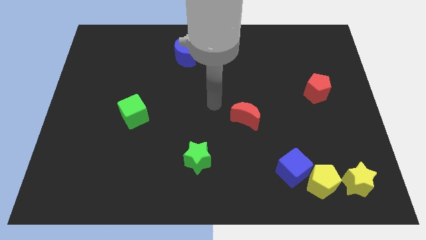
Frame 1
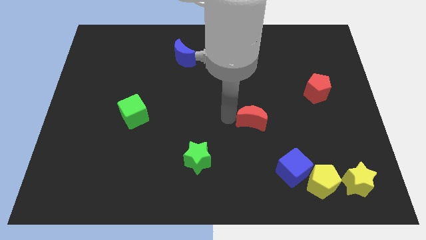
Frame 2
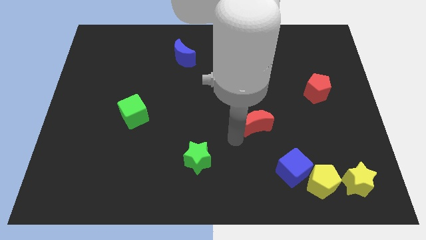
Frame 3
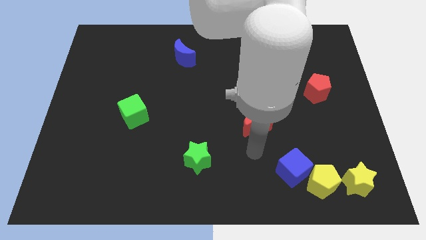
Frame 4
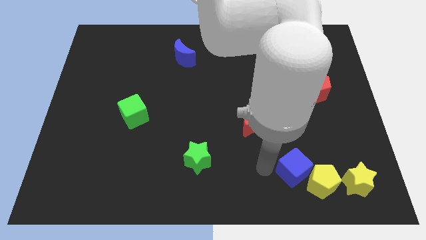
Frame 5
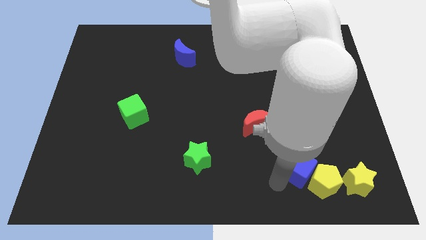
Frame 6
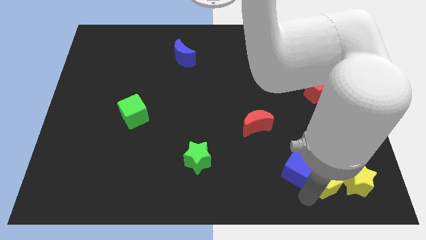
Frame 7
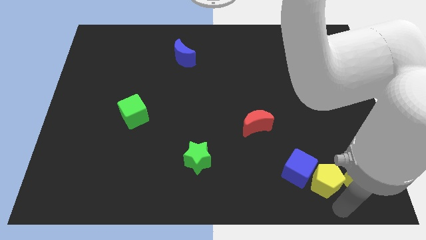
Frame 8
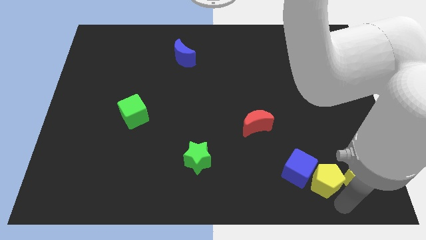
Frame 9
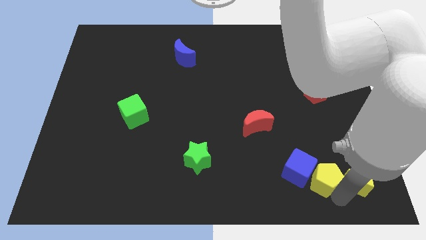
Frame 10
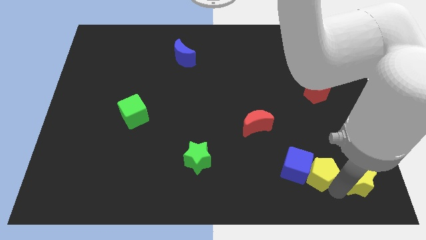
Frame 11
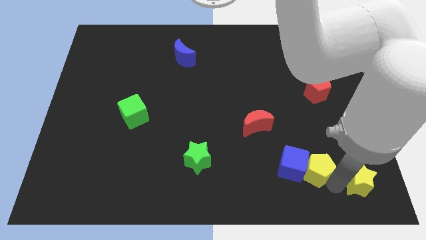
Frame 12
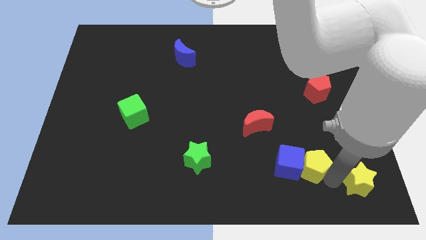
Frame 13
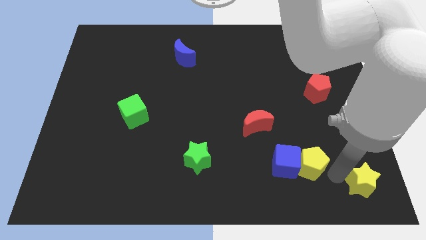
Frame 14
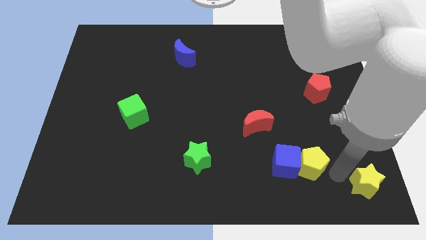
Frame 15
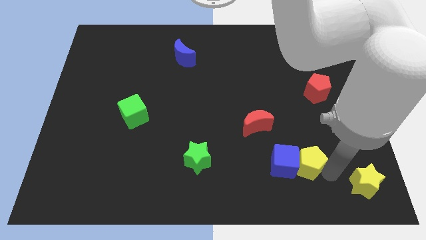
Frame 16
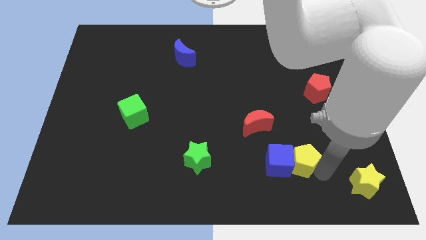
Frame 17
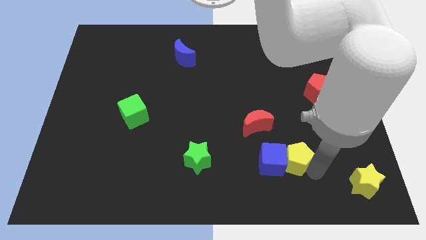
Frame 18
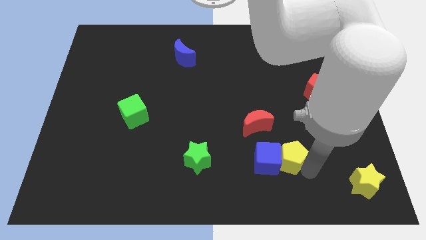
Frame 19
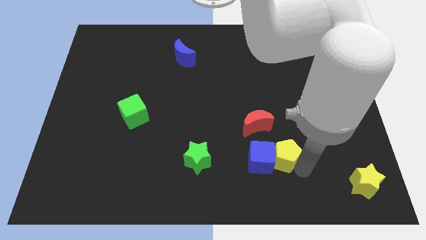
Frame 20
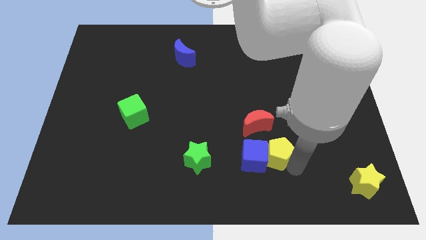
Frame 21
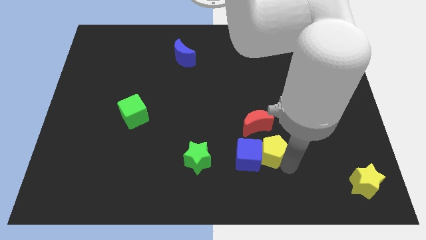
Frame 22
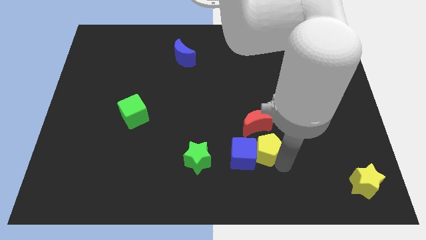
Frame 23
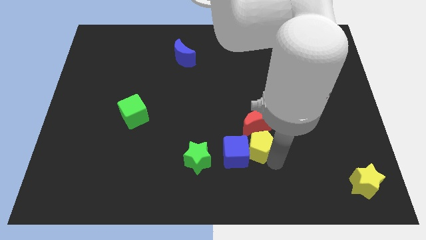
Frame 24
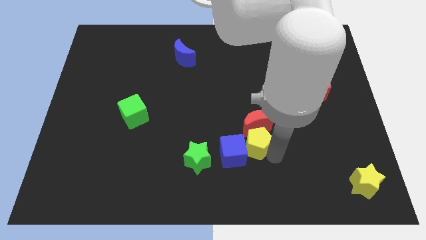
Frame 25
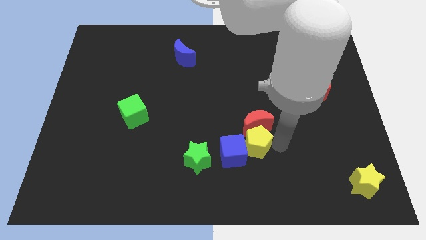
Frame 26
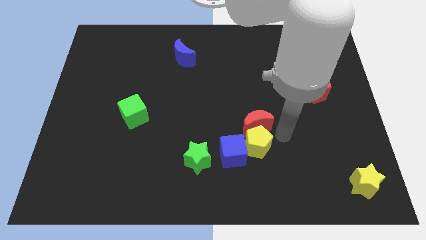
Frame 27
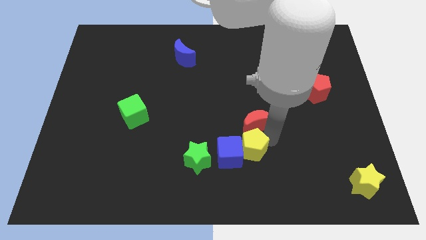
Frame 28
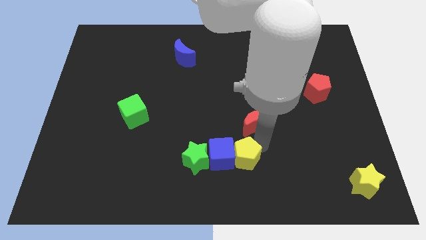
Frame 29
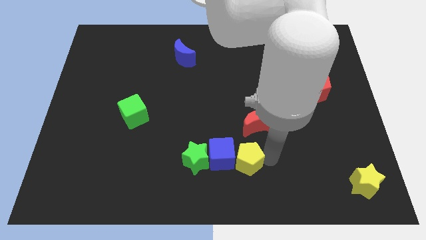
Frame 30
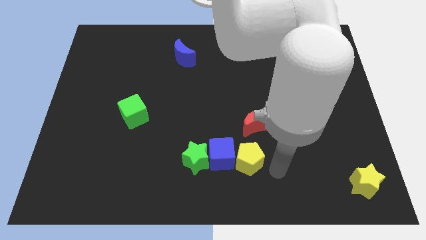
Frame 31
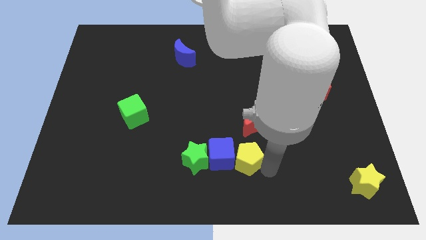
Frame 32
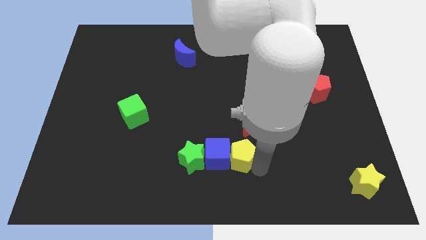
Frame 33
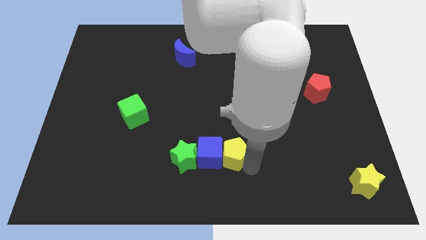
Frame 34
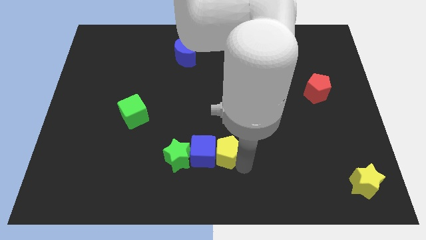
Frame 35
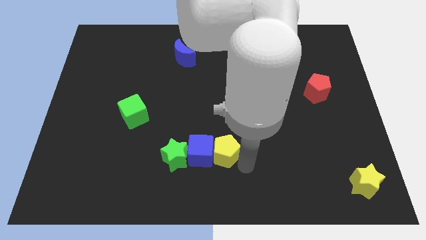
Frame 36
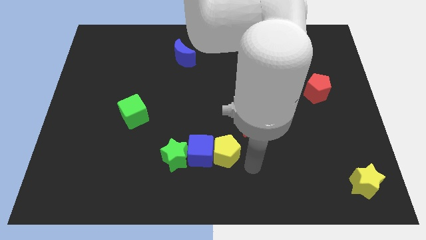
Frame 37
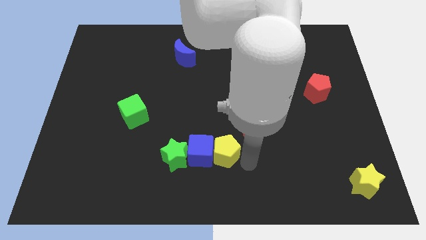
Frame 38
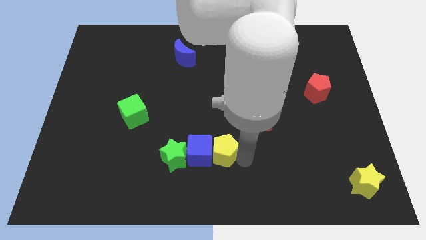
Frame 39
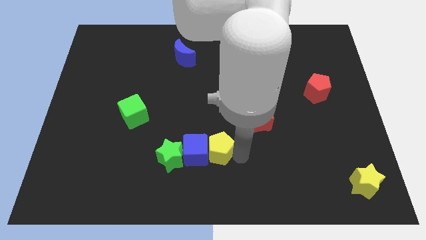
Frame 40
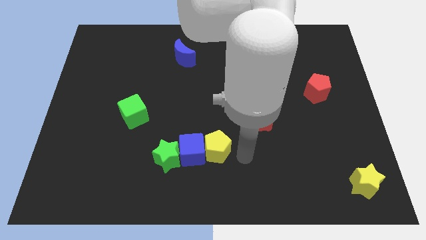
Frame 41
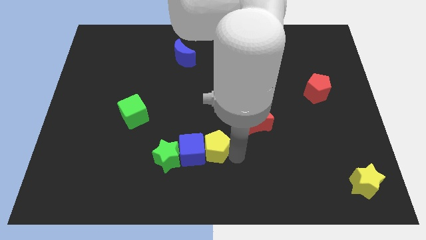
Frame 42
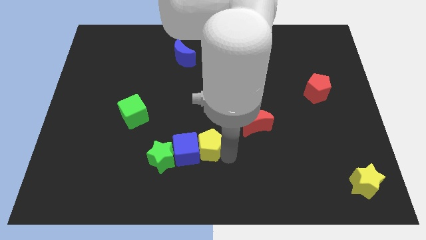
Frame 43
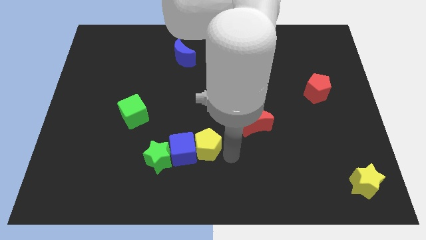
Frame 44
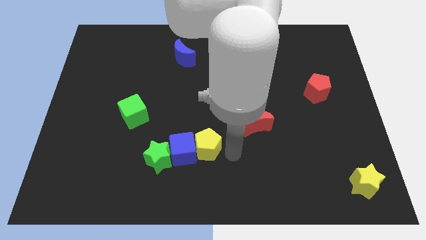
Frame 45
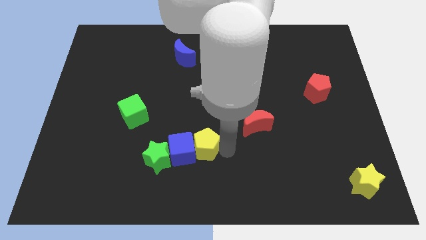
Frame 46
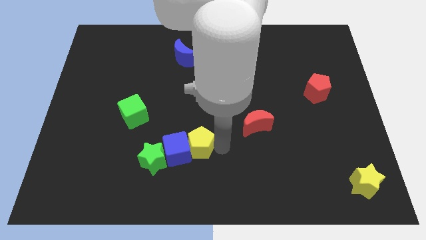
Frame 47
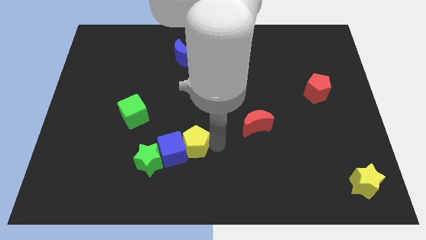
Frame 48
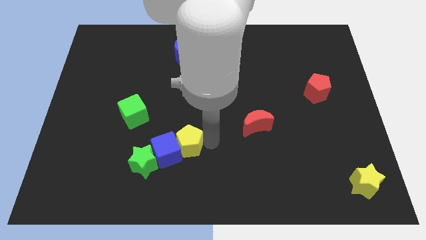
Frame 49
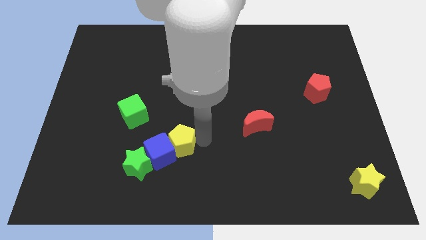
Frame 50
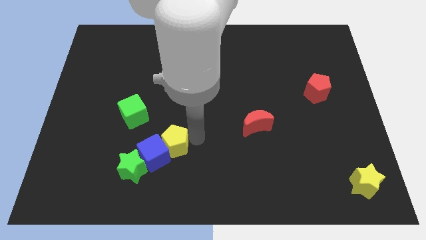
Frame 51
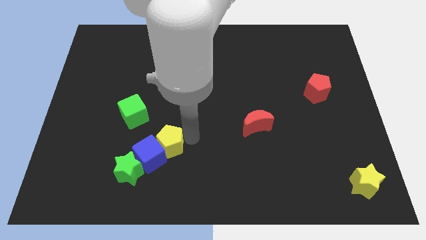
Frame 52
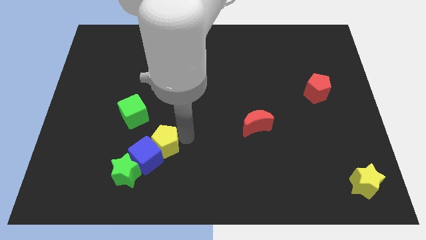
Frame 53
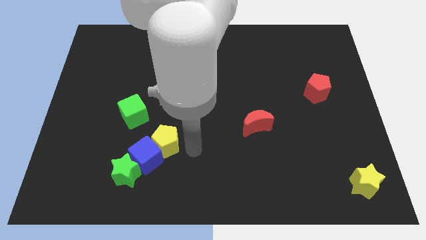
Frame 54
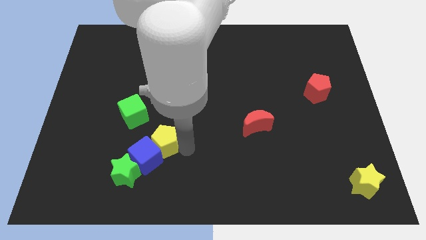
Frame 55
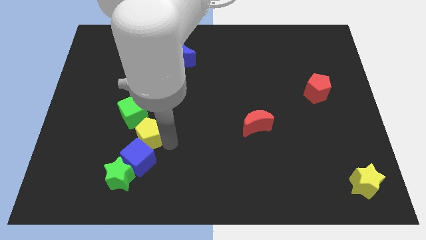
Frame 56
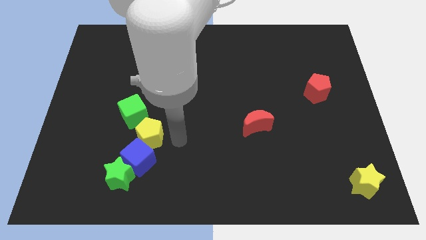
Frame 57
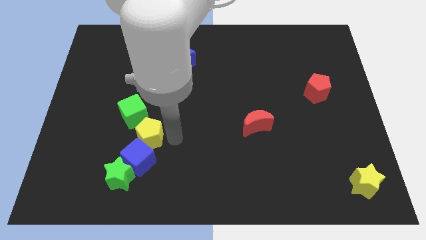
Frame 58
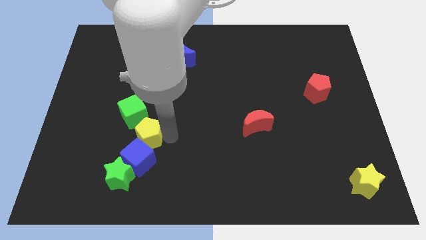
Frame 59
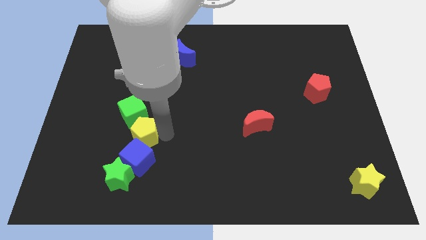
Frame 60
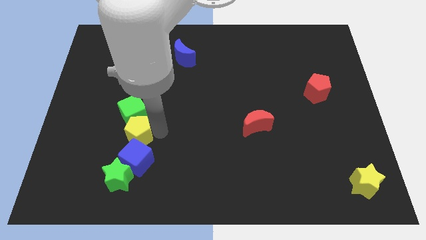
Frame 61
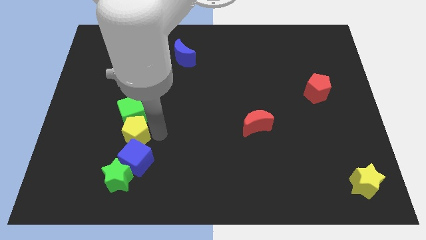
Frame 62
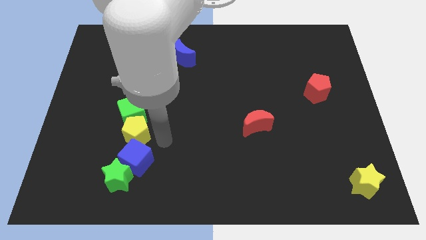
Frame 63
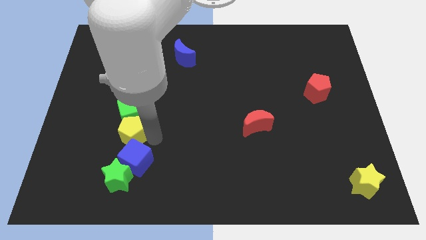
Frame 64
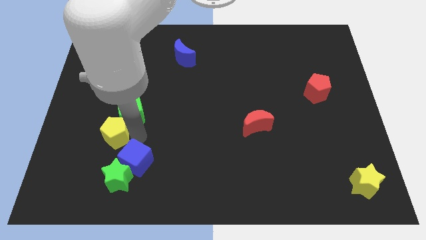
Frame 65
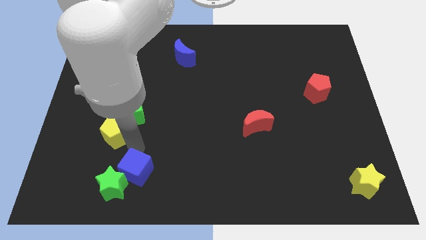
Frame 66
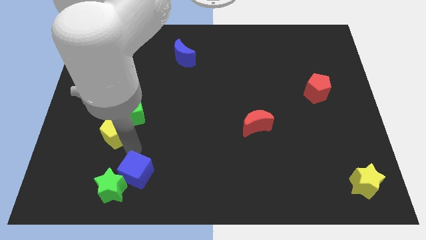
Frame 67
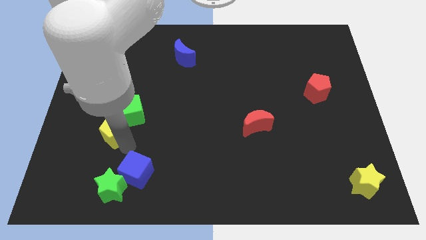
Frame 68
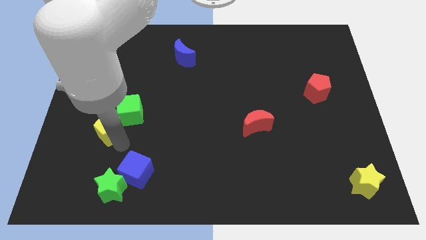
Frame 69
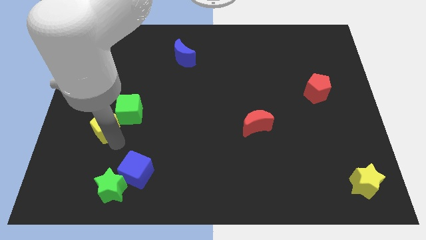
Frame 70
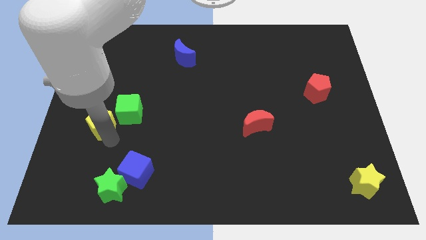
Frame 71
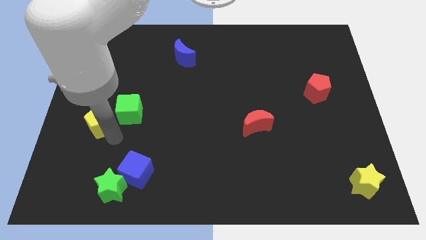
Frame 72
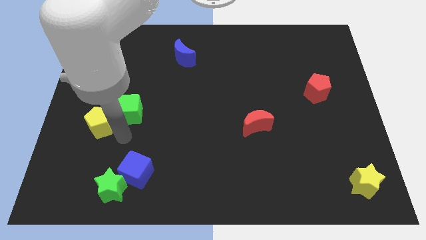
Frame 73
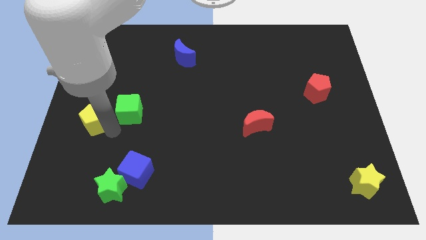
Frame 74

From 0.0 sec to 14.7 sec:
move the yellow pentagon to the left side of the board
